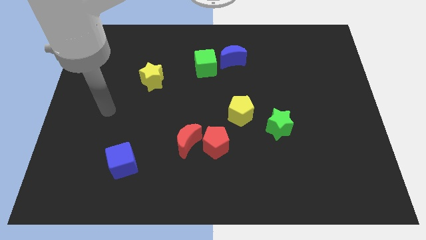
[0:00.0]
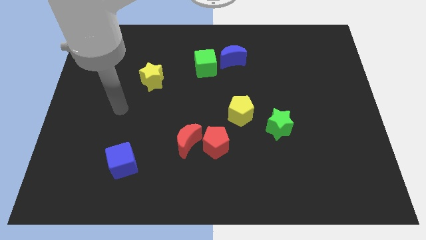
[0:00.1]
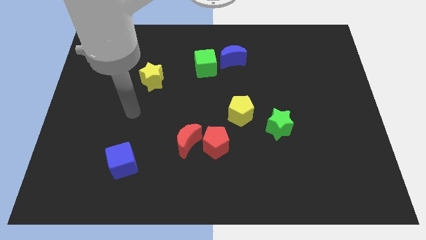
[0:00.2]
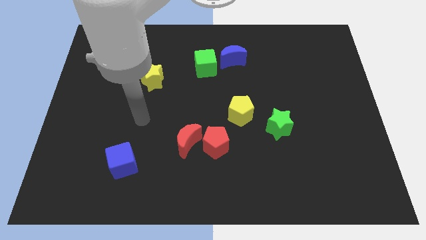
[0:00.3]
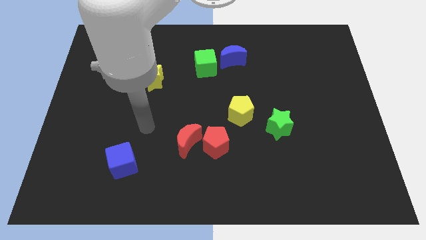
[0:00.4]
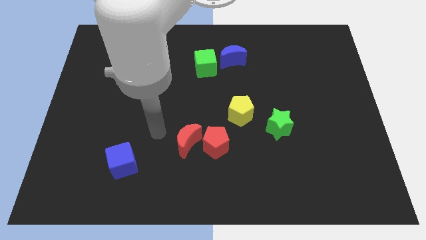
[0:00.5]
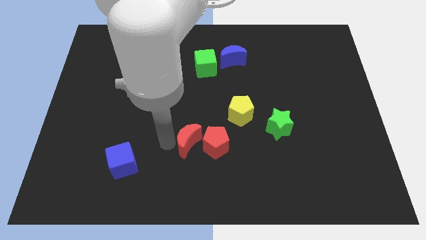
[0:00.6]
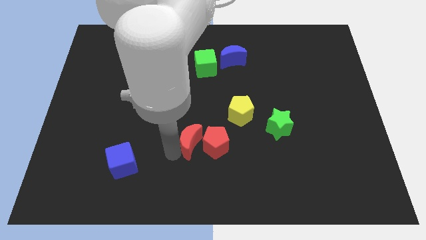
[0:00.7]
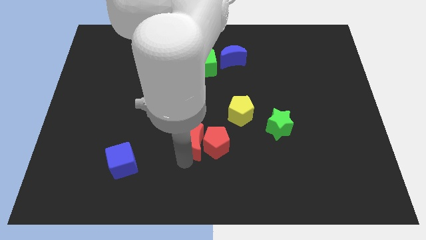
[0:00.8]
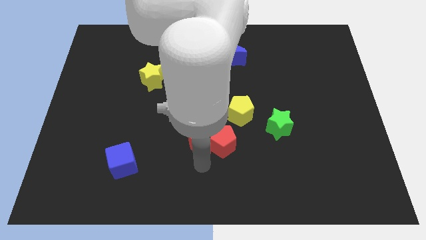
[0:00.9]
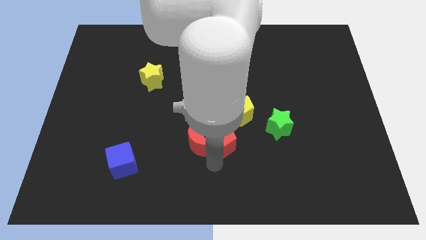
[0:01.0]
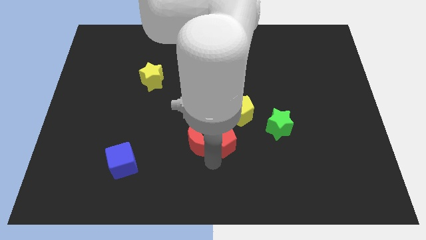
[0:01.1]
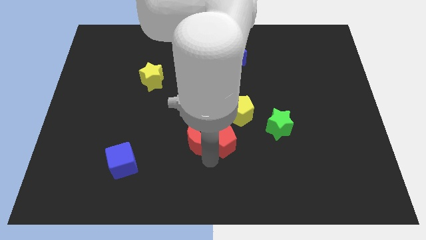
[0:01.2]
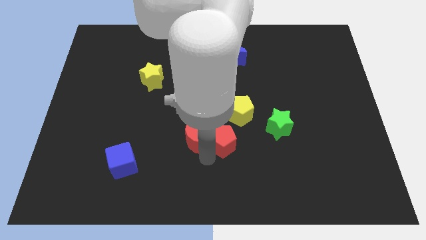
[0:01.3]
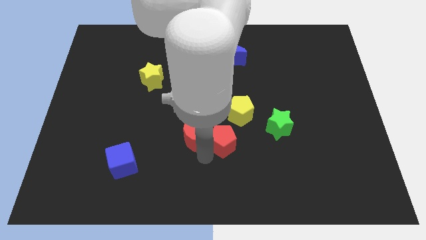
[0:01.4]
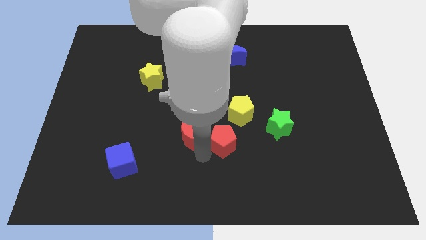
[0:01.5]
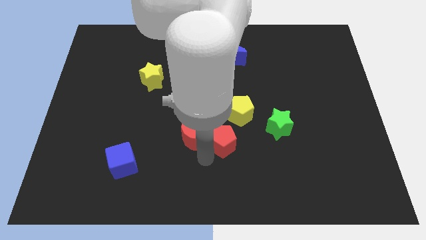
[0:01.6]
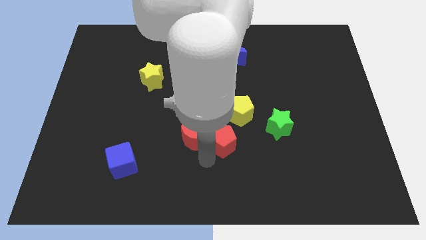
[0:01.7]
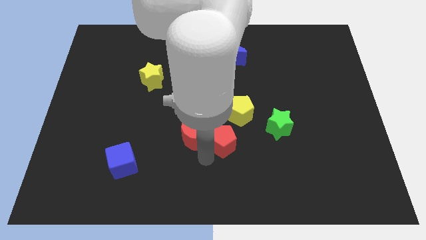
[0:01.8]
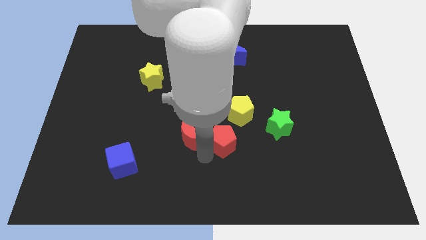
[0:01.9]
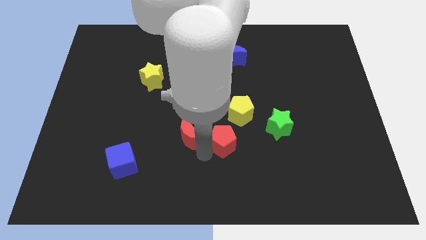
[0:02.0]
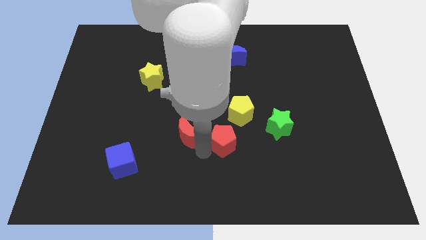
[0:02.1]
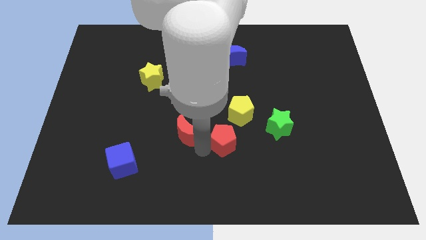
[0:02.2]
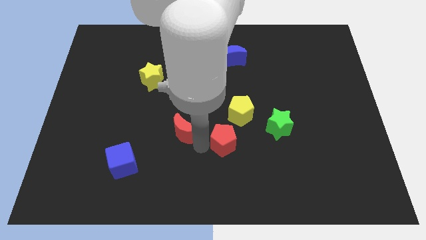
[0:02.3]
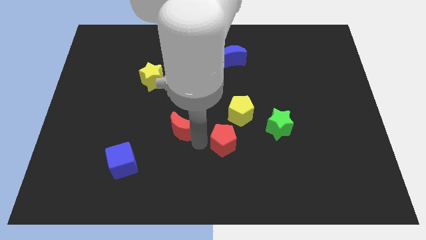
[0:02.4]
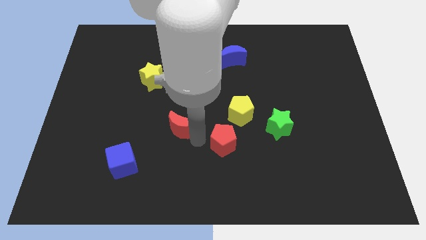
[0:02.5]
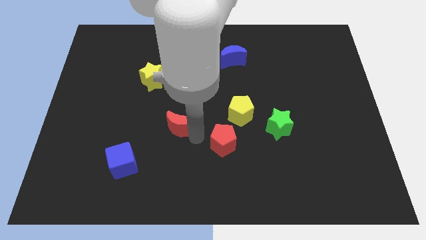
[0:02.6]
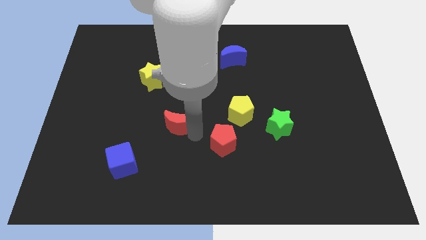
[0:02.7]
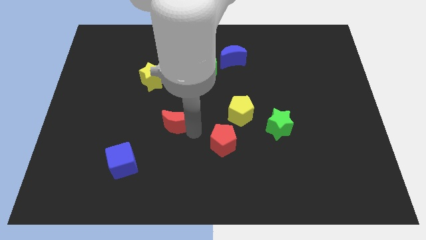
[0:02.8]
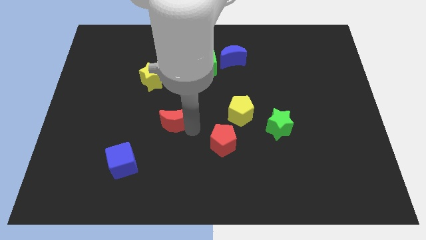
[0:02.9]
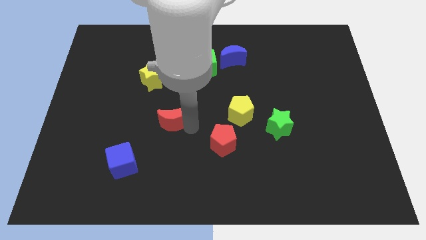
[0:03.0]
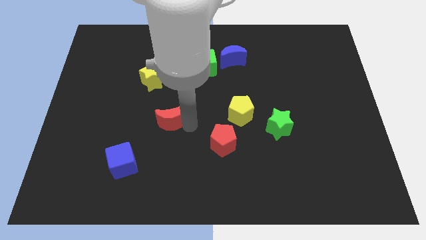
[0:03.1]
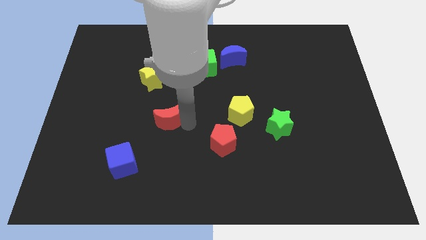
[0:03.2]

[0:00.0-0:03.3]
move the red moon diagonally up and to the left a bit

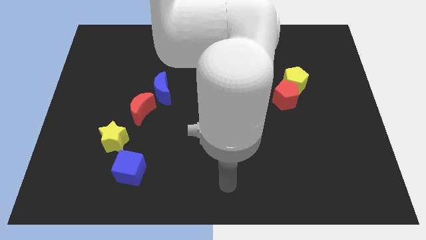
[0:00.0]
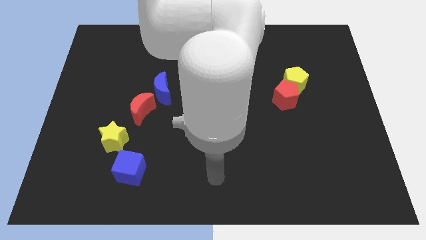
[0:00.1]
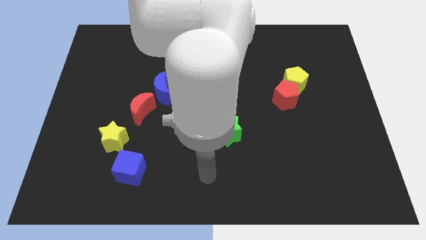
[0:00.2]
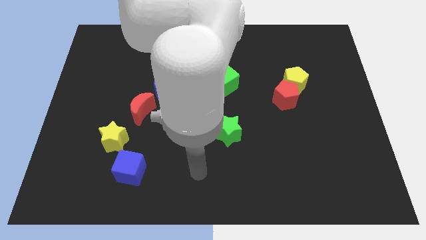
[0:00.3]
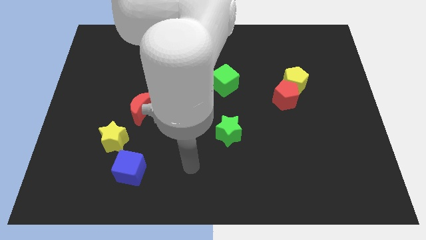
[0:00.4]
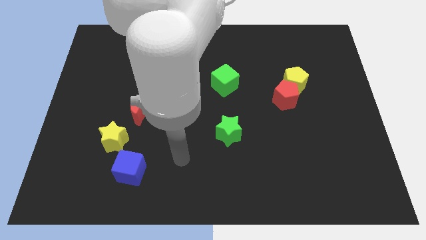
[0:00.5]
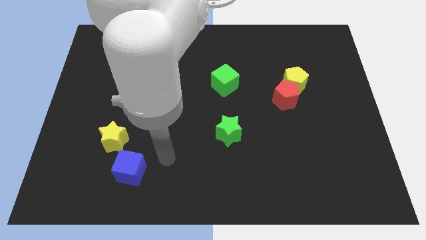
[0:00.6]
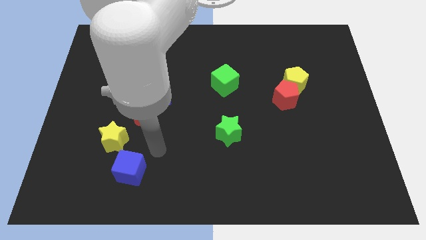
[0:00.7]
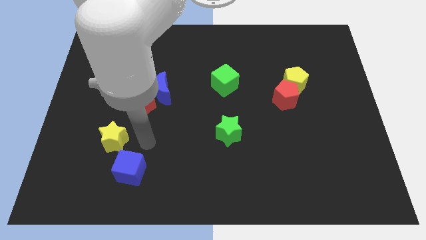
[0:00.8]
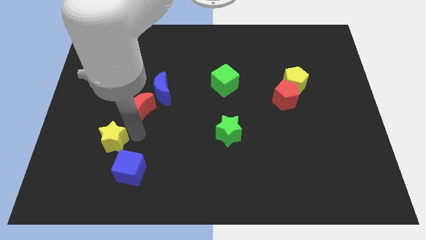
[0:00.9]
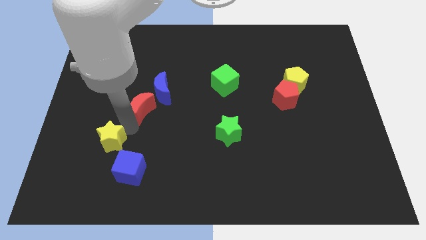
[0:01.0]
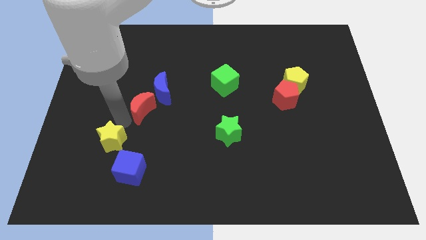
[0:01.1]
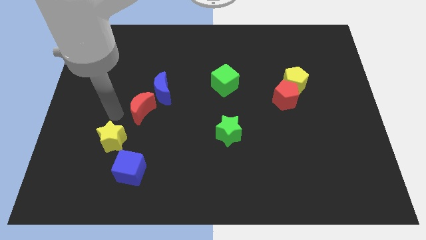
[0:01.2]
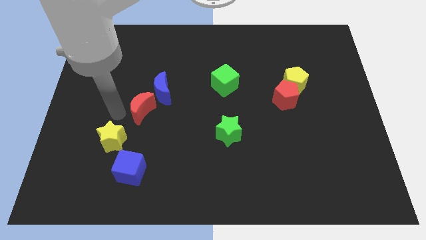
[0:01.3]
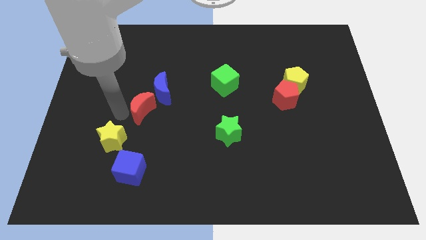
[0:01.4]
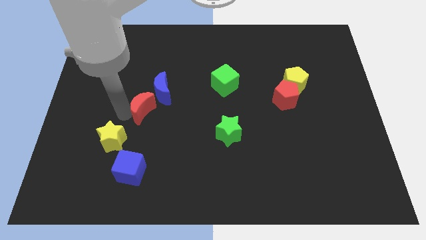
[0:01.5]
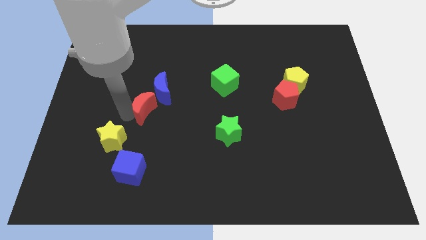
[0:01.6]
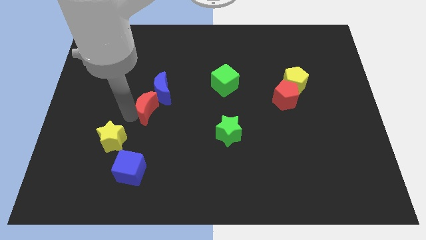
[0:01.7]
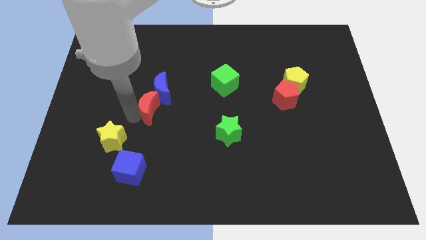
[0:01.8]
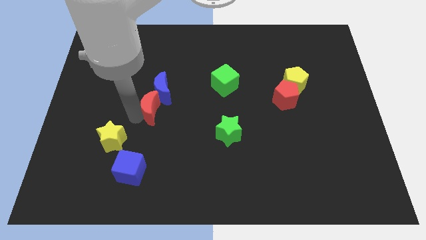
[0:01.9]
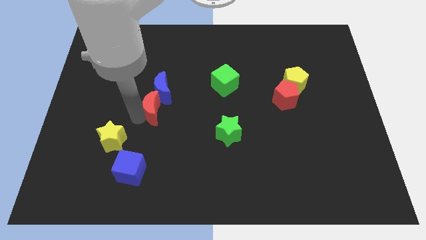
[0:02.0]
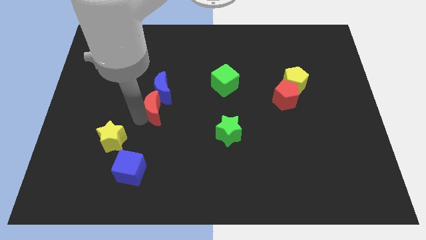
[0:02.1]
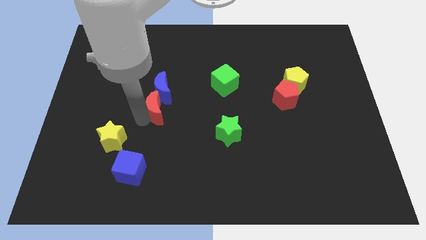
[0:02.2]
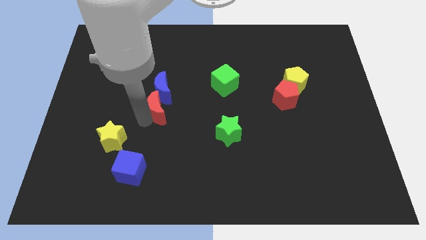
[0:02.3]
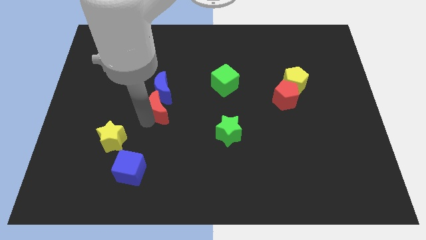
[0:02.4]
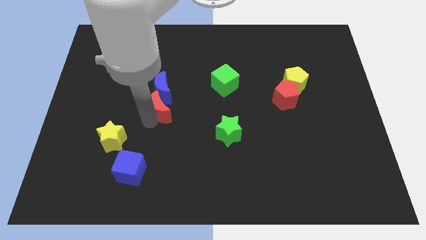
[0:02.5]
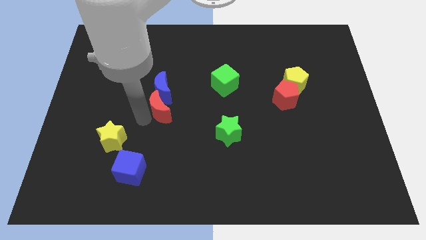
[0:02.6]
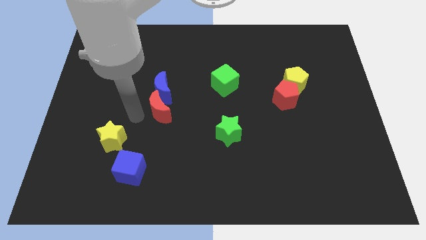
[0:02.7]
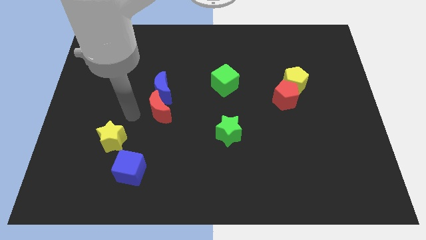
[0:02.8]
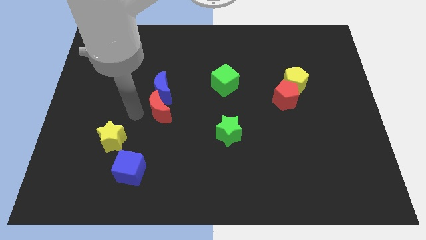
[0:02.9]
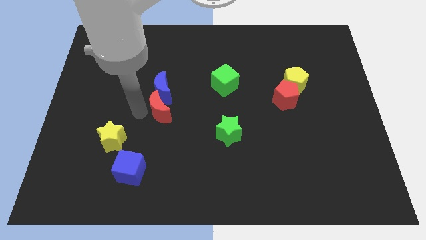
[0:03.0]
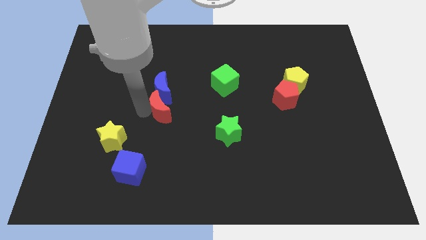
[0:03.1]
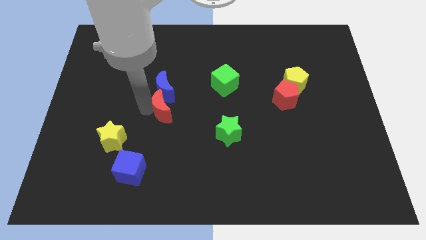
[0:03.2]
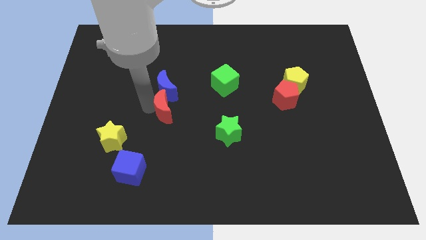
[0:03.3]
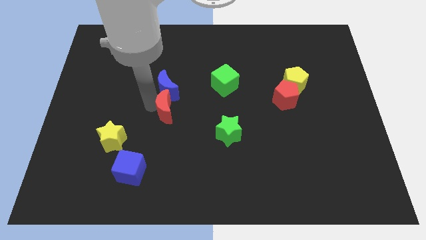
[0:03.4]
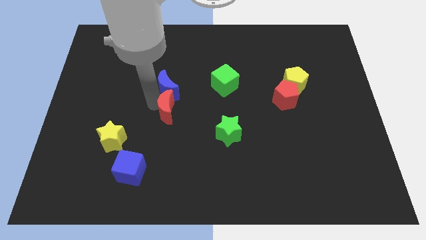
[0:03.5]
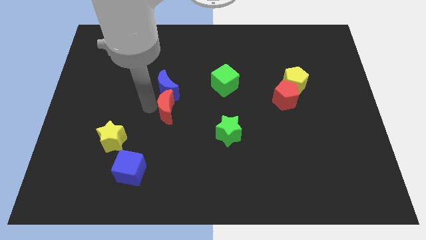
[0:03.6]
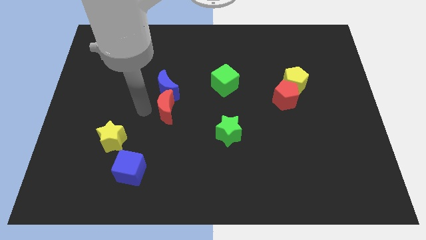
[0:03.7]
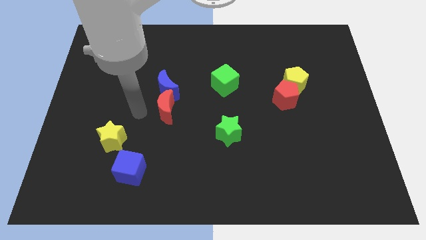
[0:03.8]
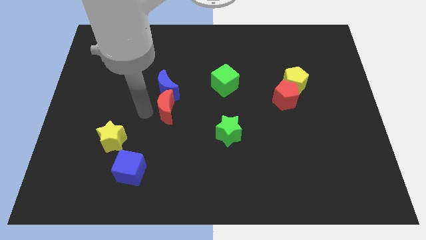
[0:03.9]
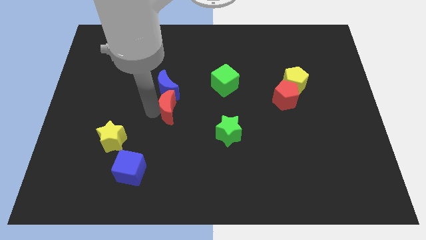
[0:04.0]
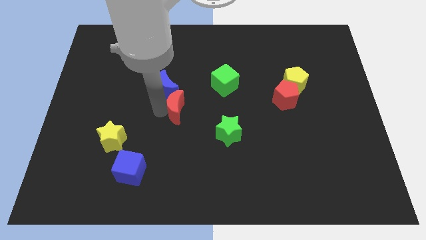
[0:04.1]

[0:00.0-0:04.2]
slightly move the red moon to the right

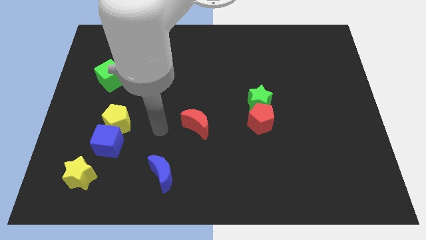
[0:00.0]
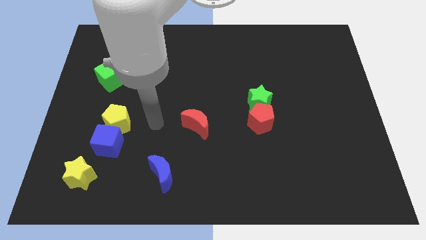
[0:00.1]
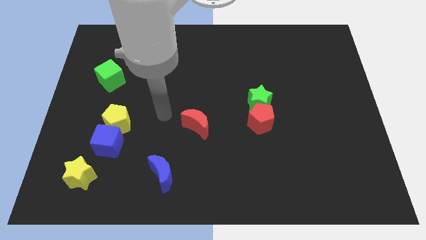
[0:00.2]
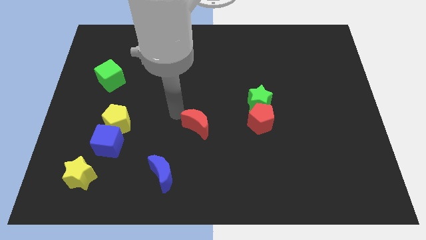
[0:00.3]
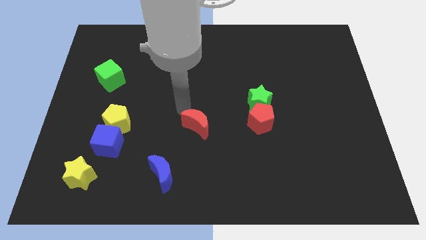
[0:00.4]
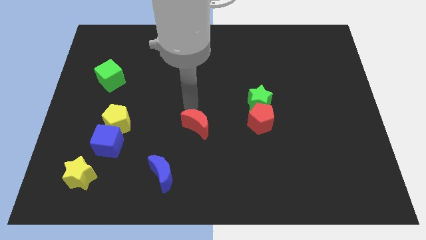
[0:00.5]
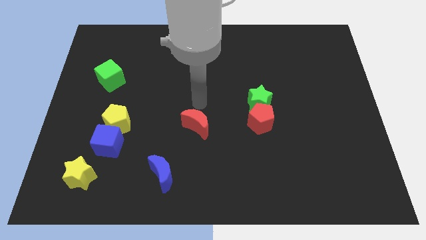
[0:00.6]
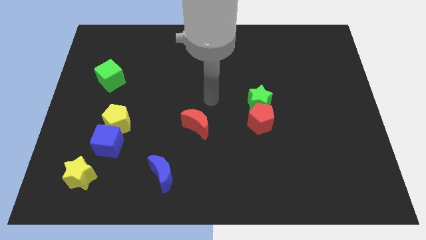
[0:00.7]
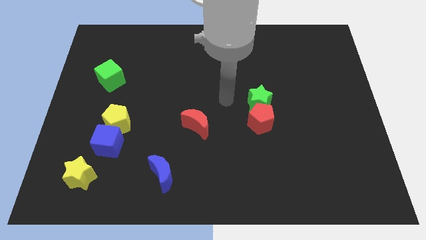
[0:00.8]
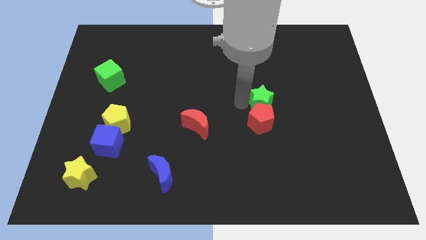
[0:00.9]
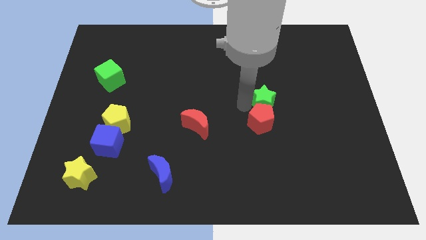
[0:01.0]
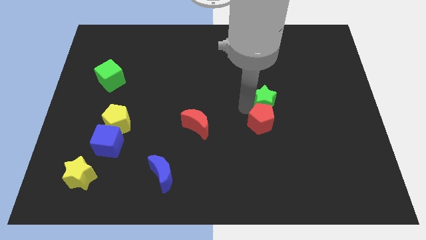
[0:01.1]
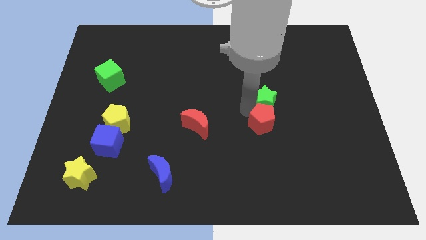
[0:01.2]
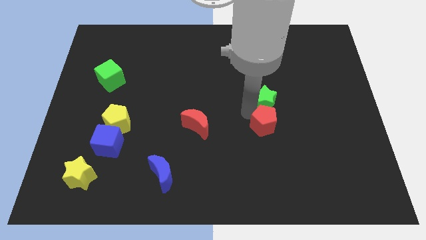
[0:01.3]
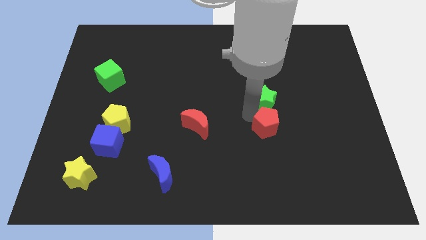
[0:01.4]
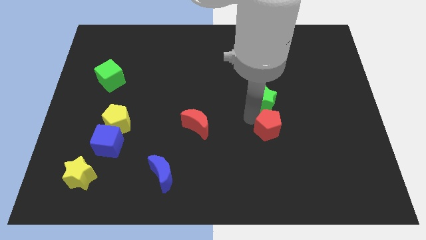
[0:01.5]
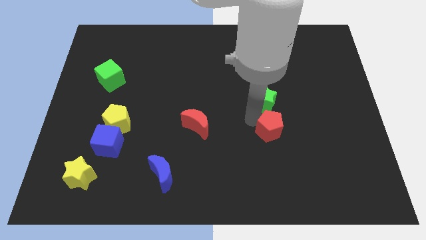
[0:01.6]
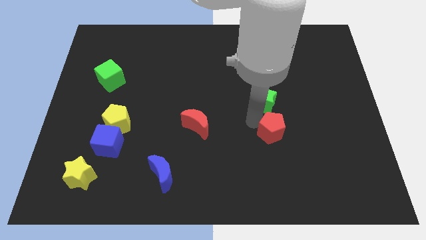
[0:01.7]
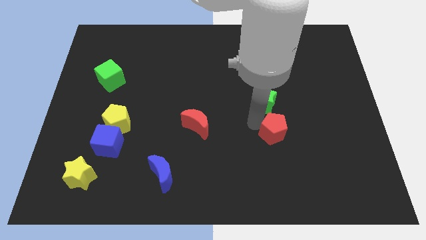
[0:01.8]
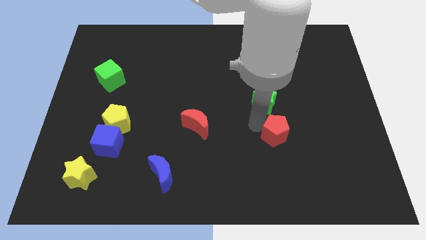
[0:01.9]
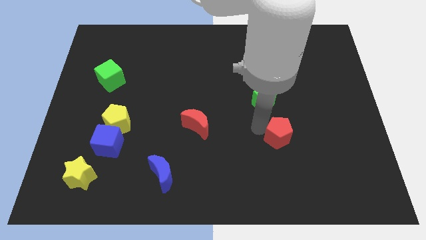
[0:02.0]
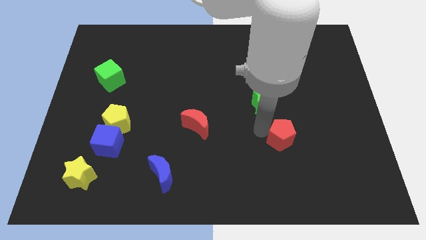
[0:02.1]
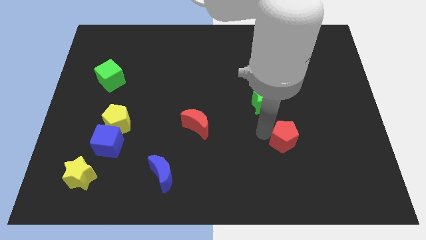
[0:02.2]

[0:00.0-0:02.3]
push the red pentagon down and then to the right somewhat
